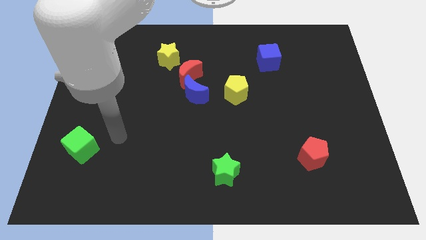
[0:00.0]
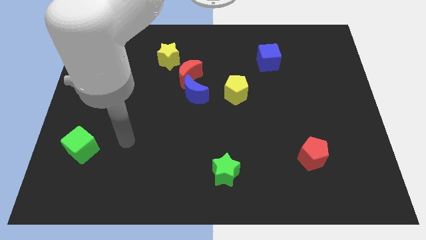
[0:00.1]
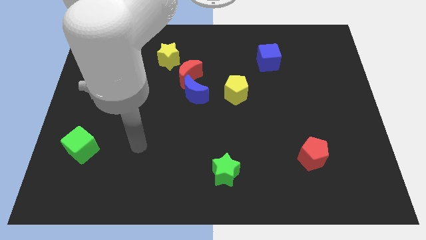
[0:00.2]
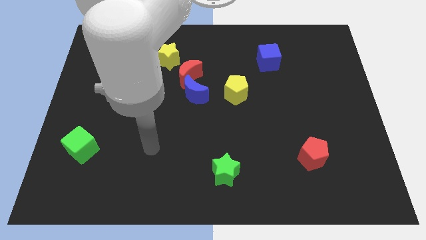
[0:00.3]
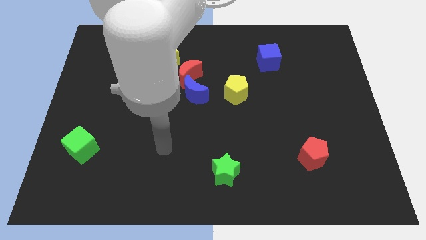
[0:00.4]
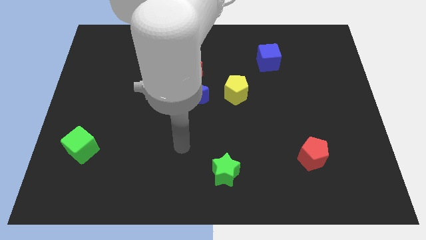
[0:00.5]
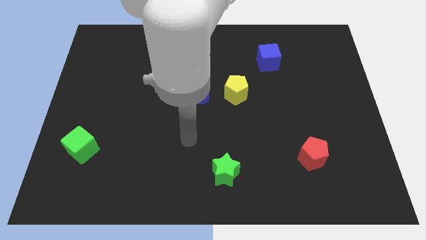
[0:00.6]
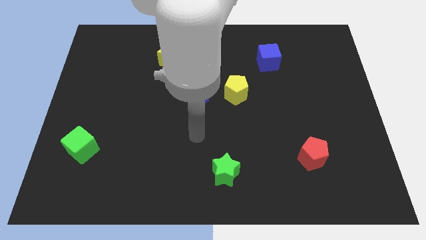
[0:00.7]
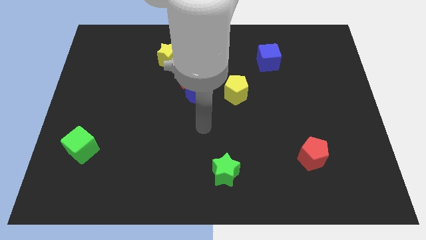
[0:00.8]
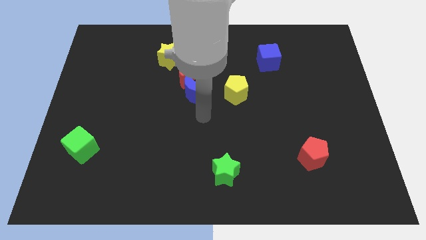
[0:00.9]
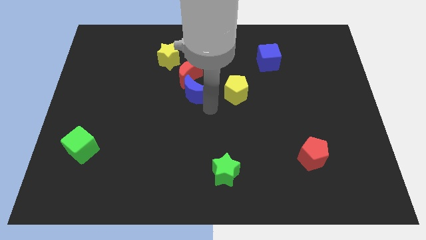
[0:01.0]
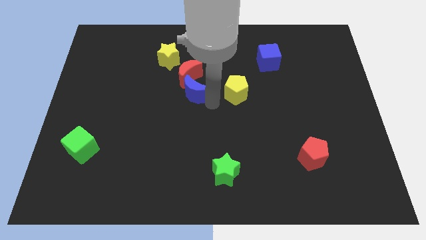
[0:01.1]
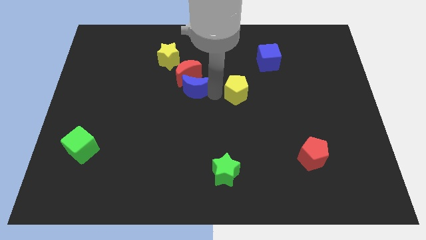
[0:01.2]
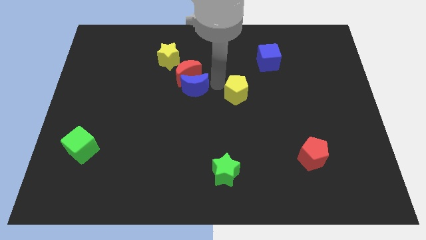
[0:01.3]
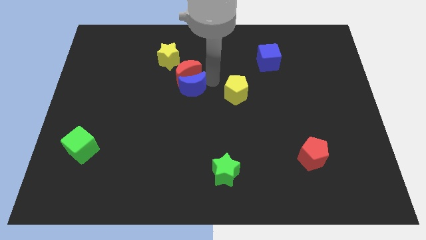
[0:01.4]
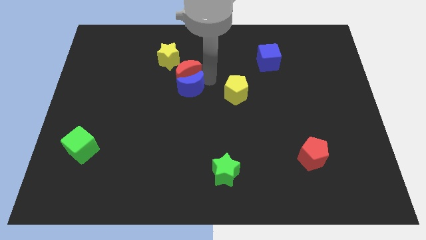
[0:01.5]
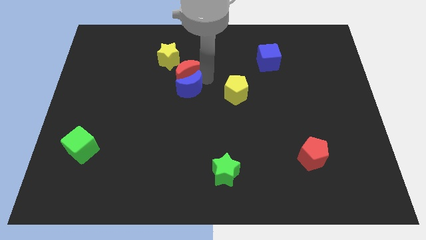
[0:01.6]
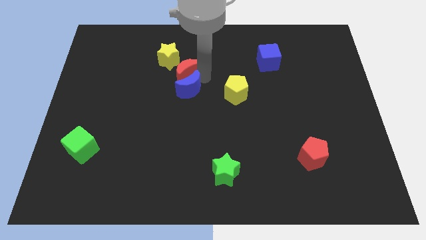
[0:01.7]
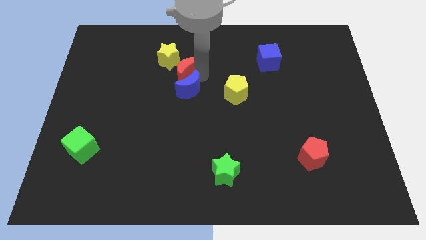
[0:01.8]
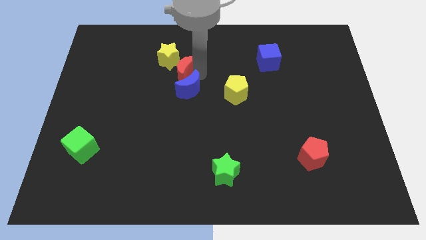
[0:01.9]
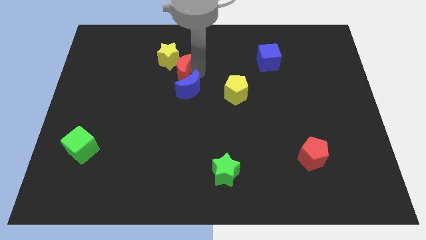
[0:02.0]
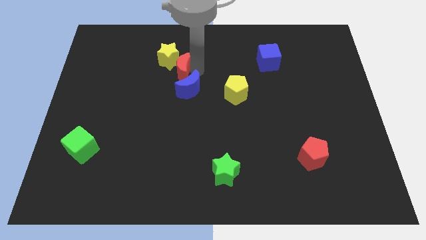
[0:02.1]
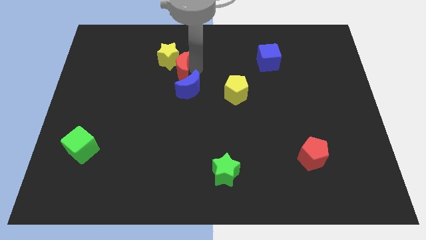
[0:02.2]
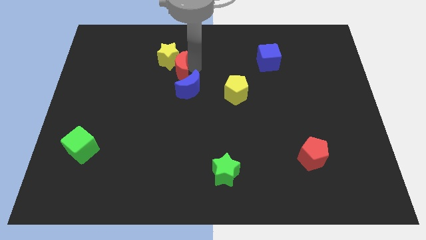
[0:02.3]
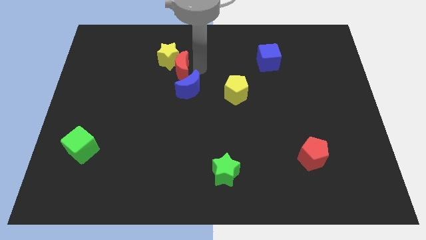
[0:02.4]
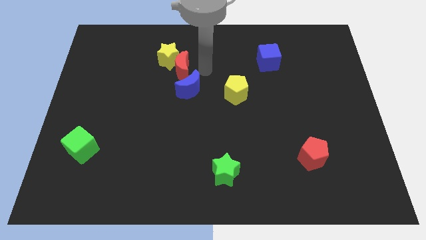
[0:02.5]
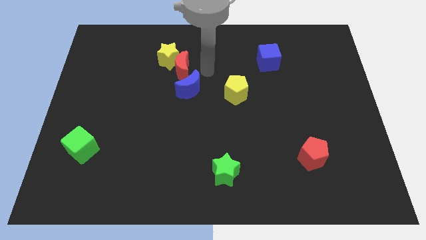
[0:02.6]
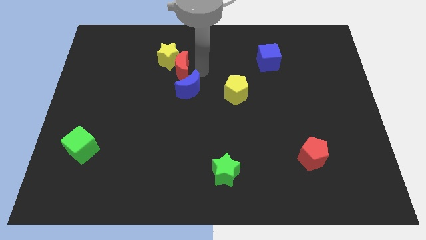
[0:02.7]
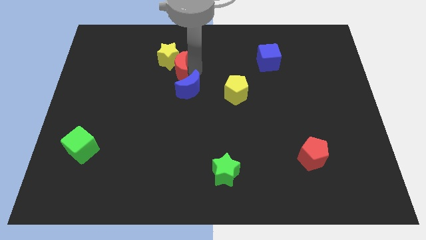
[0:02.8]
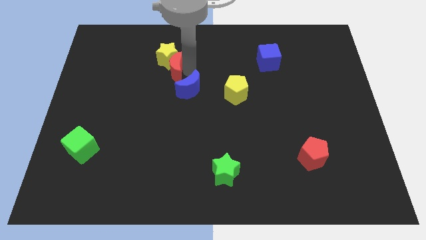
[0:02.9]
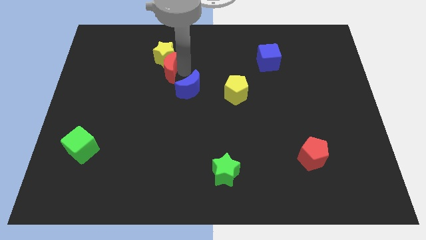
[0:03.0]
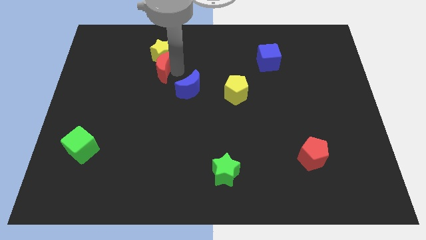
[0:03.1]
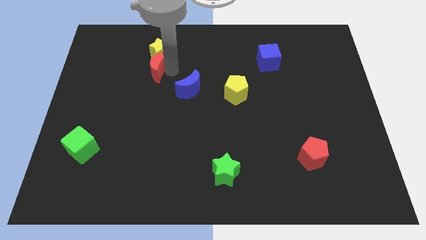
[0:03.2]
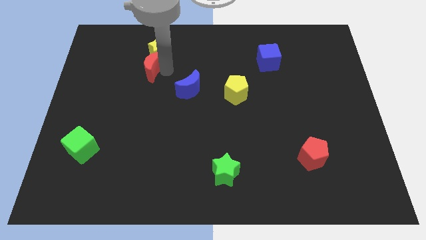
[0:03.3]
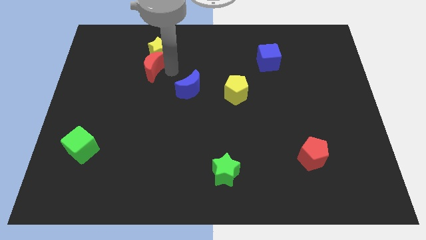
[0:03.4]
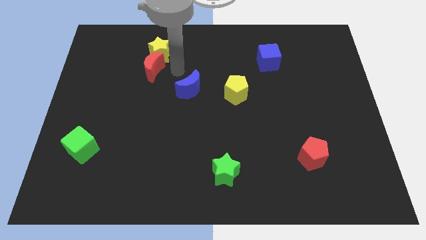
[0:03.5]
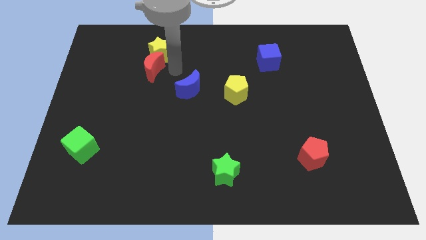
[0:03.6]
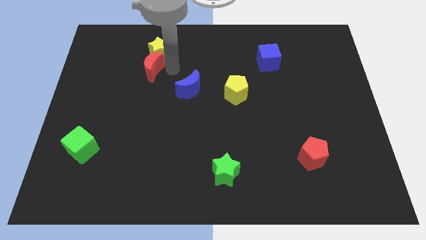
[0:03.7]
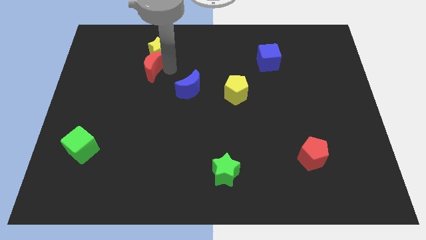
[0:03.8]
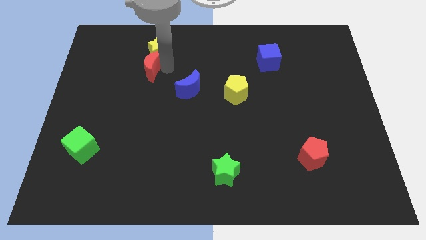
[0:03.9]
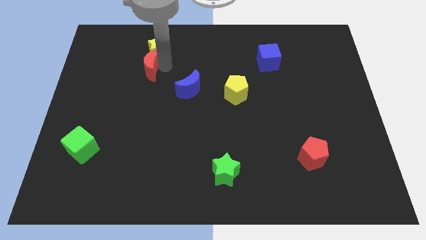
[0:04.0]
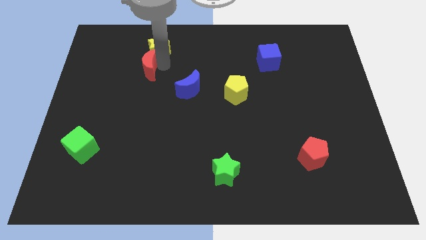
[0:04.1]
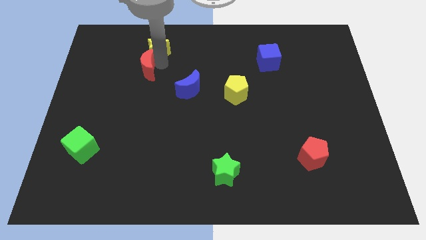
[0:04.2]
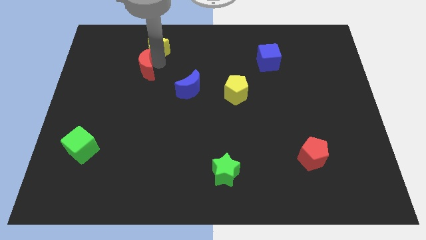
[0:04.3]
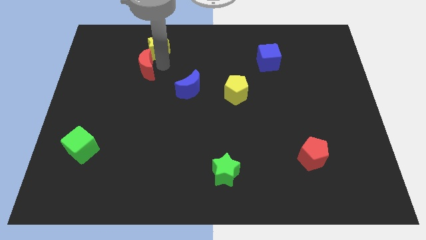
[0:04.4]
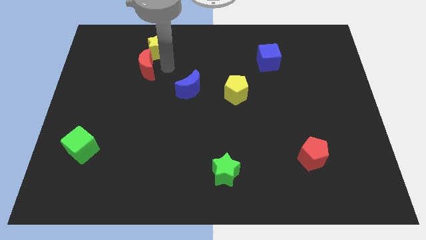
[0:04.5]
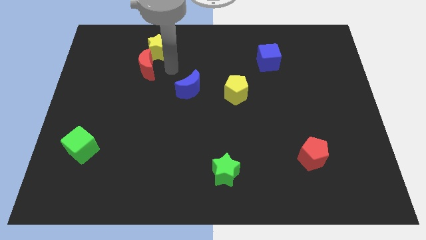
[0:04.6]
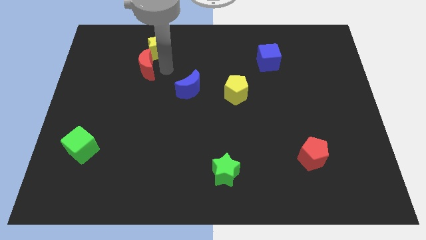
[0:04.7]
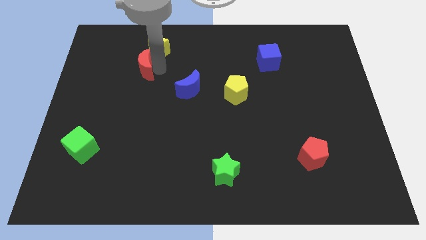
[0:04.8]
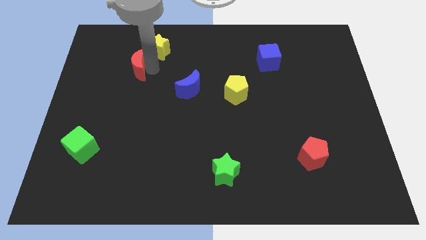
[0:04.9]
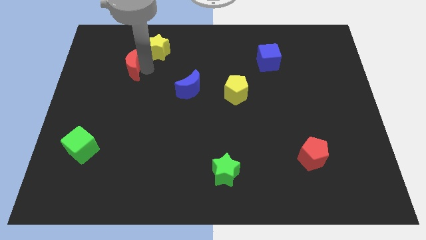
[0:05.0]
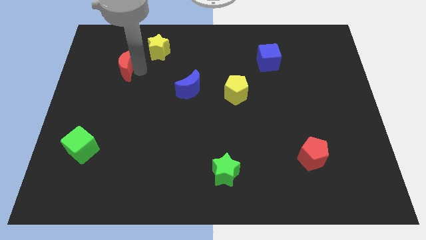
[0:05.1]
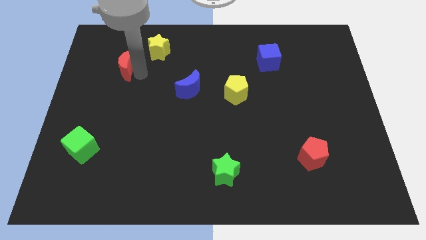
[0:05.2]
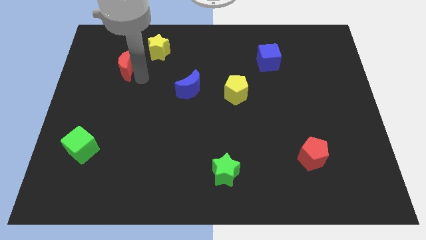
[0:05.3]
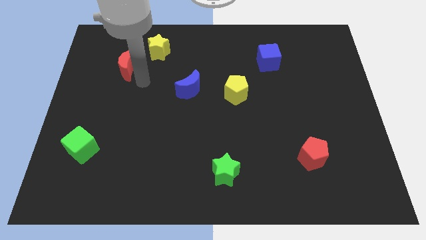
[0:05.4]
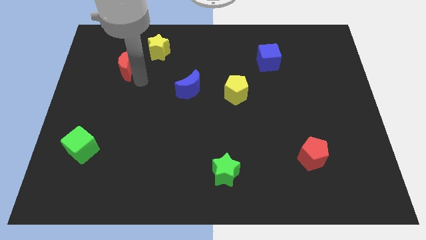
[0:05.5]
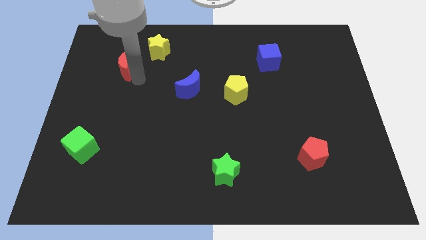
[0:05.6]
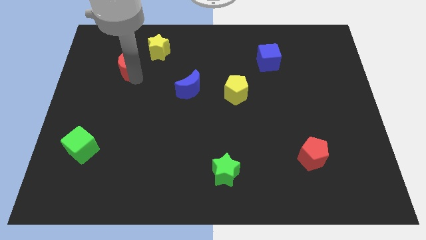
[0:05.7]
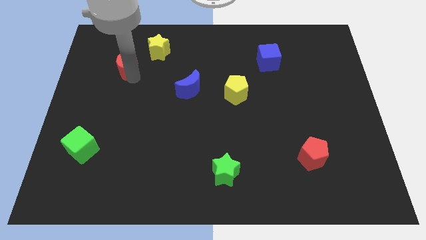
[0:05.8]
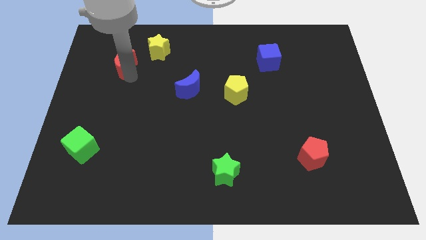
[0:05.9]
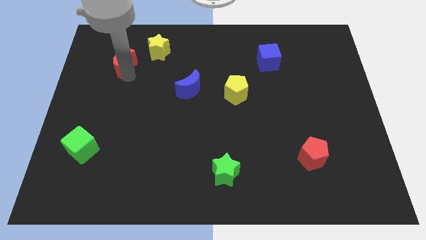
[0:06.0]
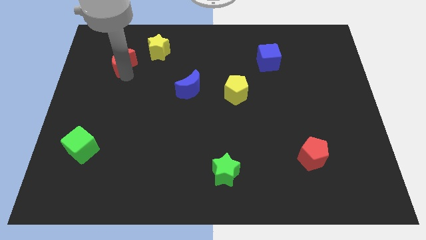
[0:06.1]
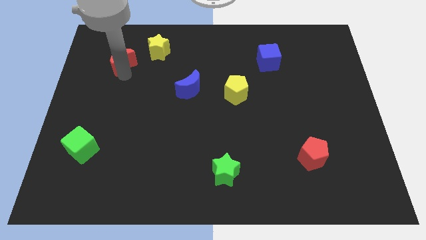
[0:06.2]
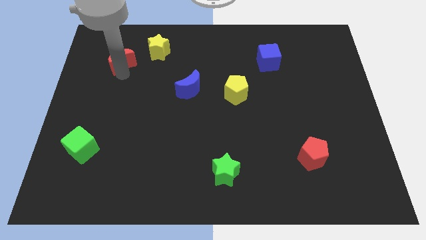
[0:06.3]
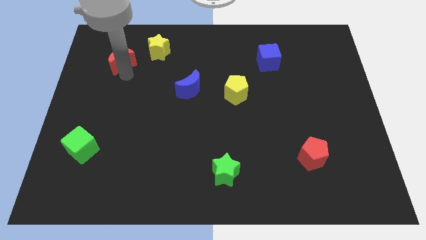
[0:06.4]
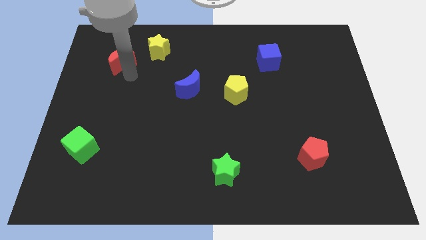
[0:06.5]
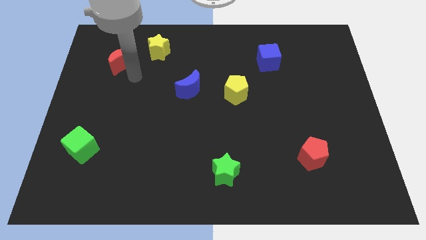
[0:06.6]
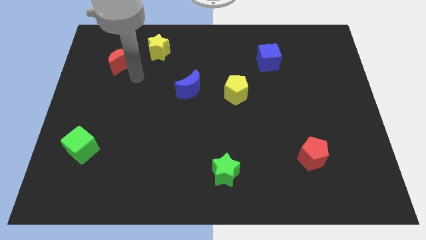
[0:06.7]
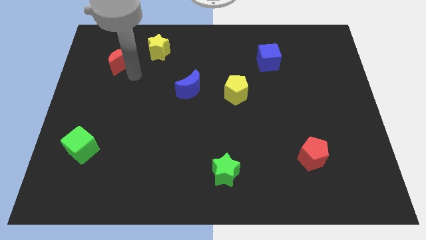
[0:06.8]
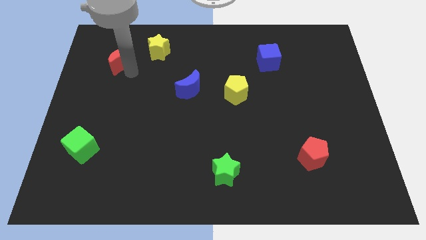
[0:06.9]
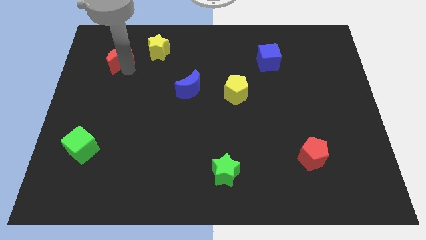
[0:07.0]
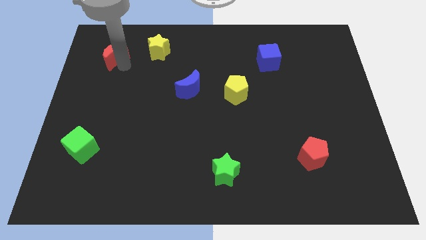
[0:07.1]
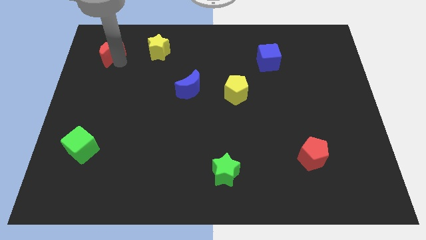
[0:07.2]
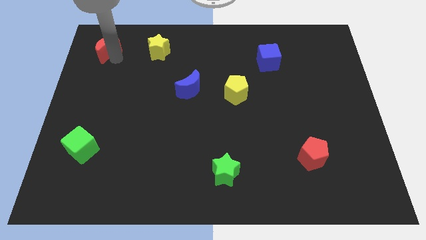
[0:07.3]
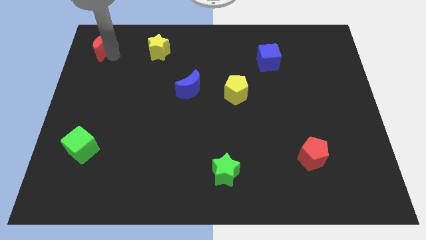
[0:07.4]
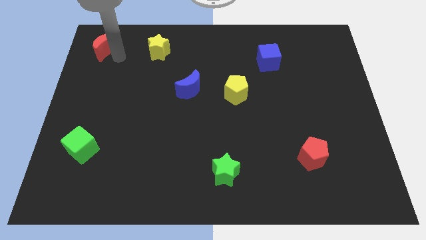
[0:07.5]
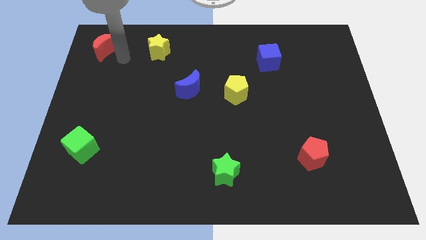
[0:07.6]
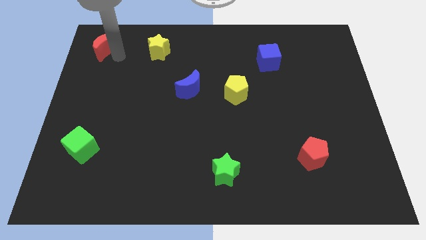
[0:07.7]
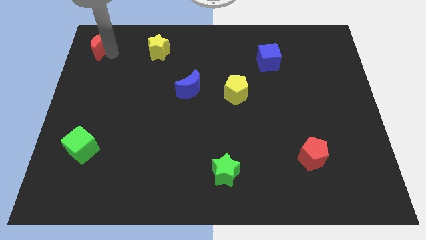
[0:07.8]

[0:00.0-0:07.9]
push the red moon to the top left of the board
